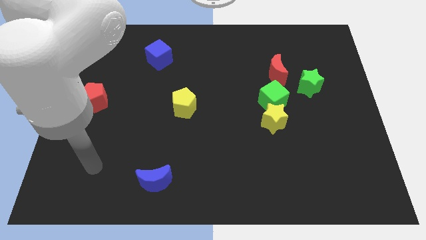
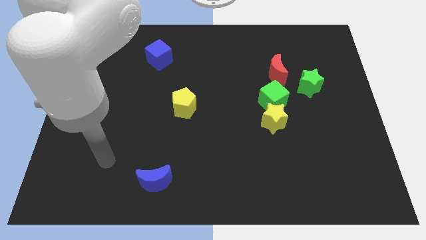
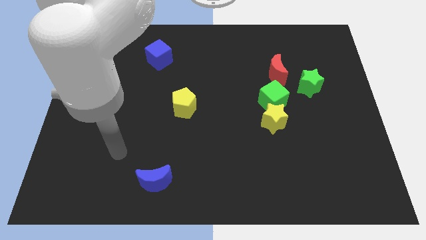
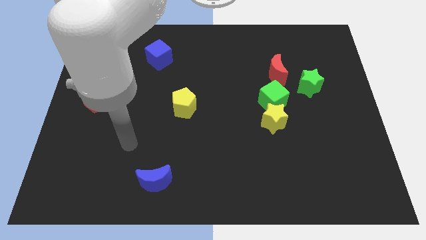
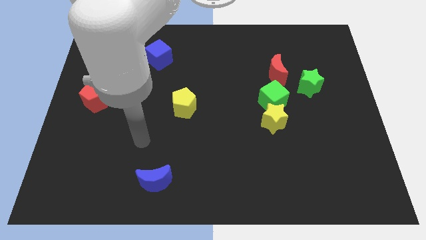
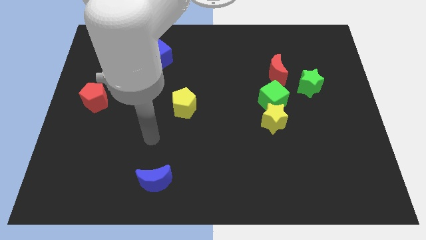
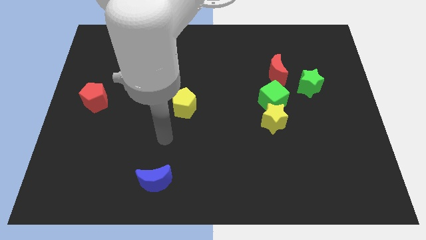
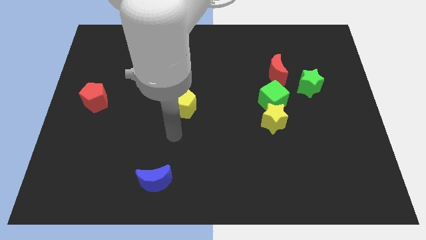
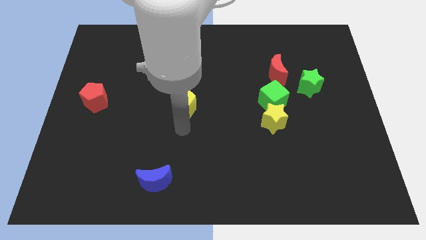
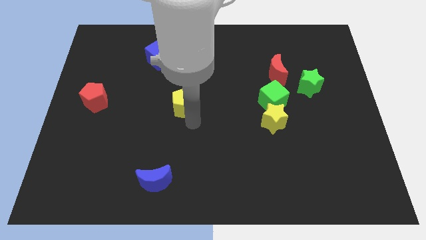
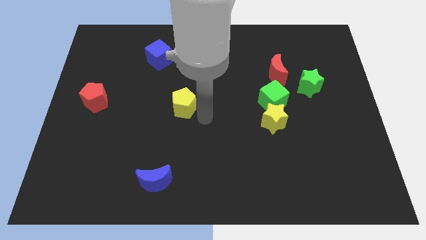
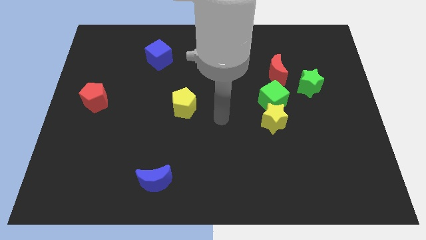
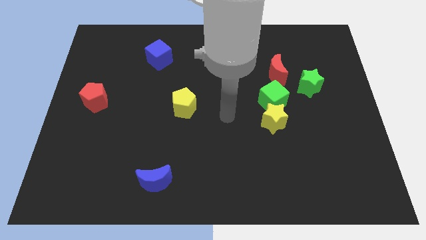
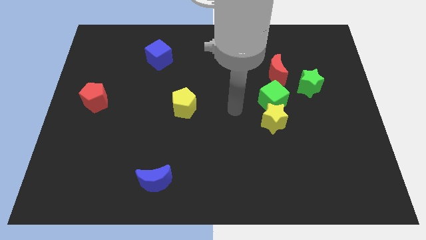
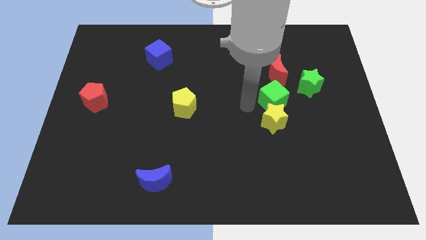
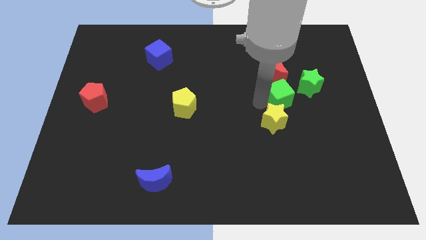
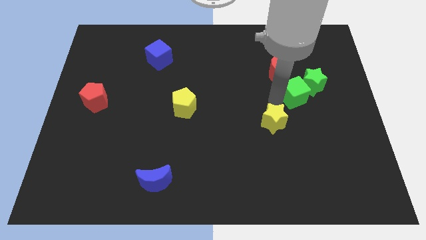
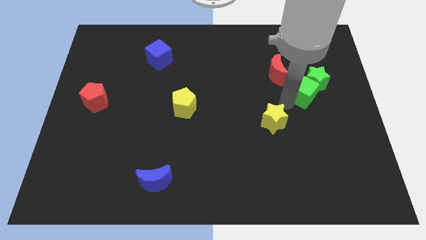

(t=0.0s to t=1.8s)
separate the yellow star from the green cube

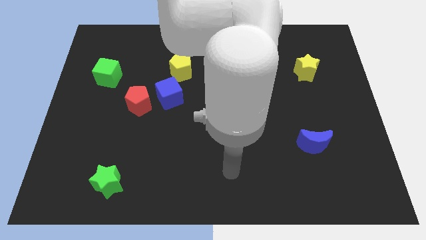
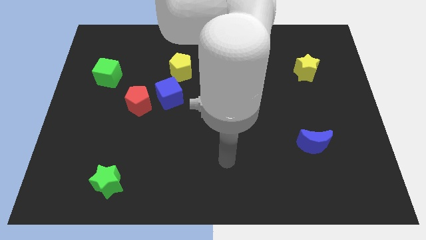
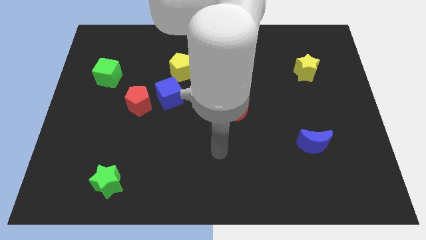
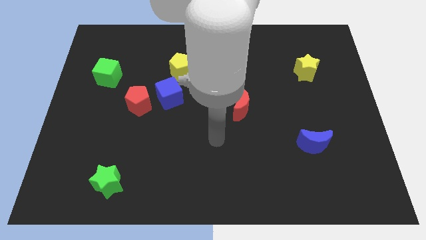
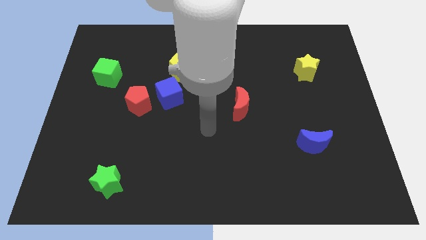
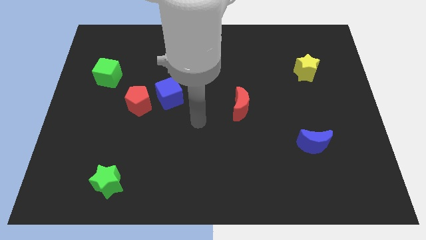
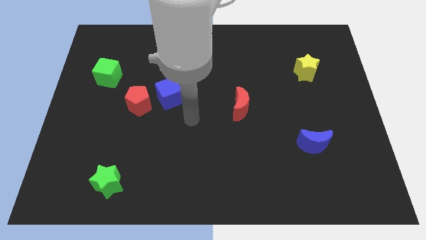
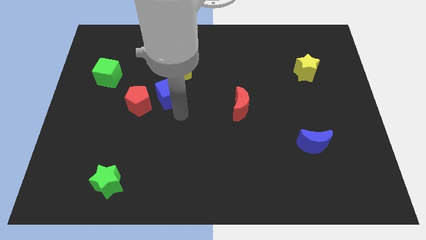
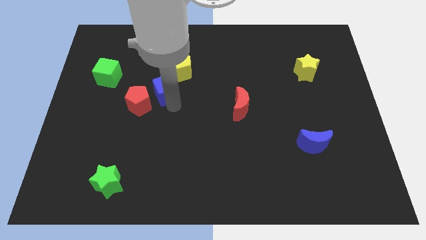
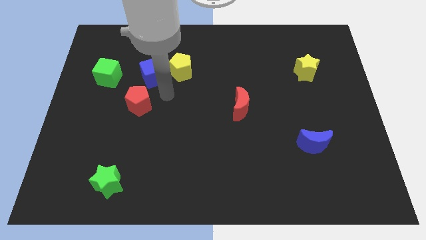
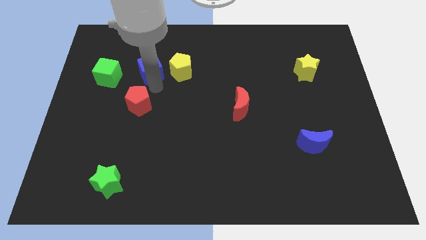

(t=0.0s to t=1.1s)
separate the red pentagon from the blue cube

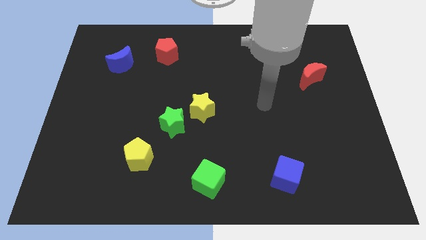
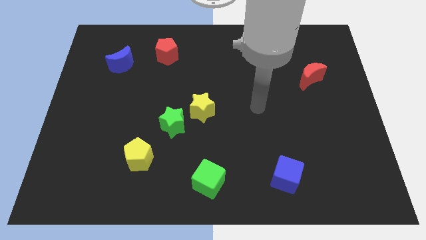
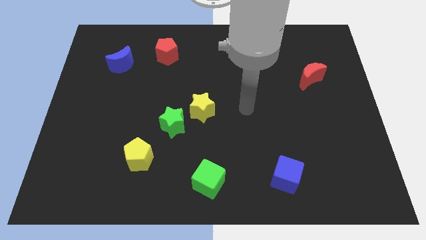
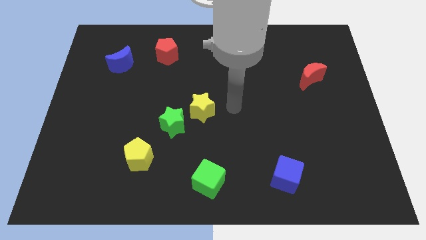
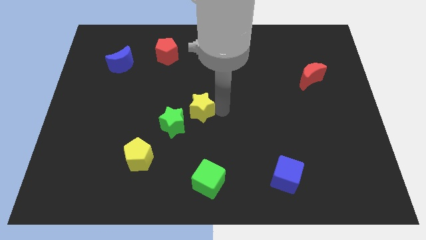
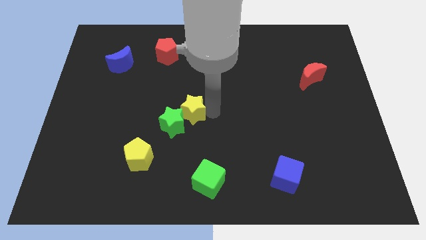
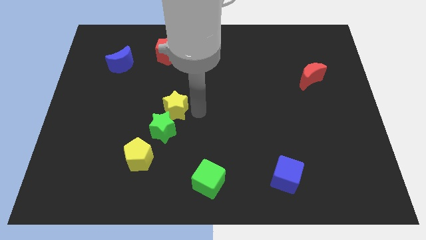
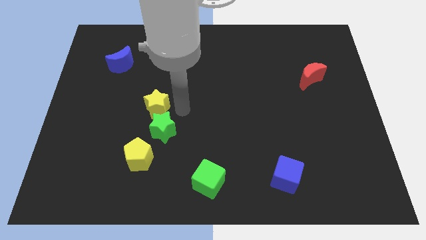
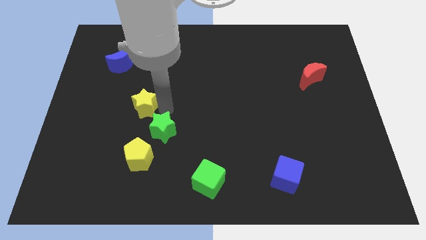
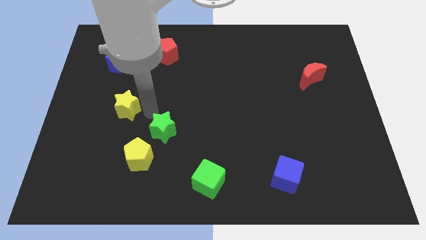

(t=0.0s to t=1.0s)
pull the green star apart from the yellow star

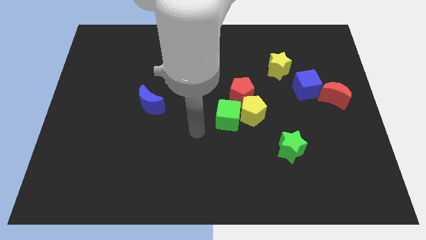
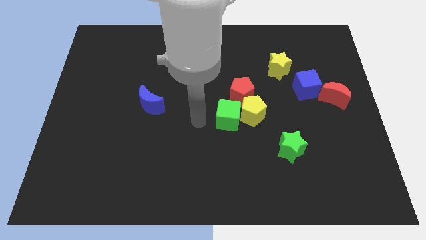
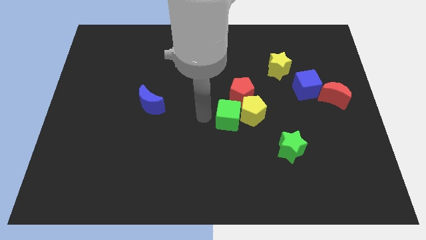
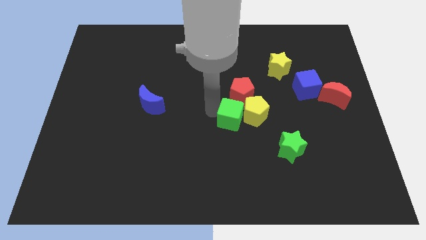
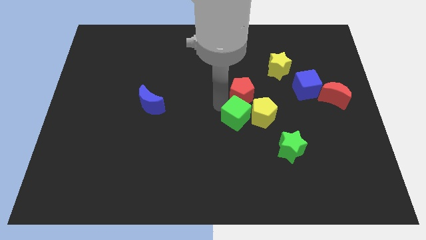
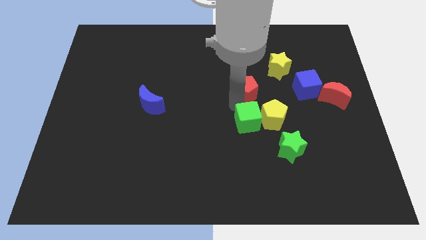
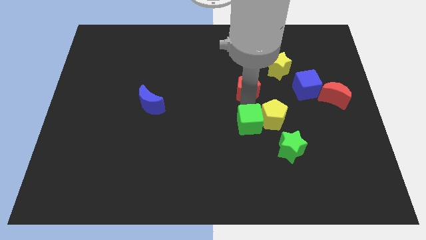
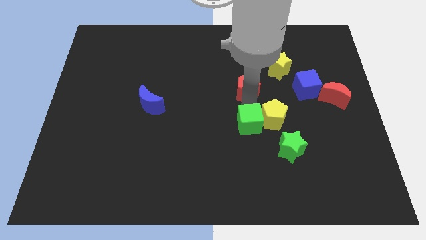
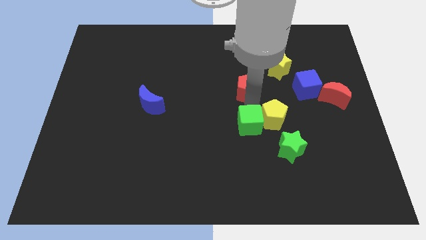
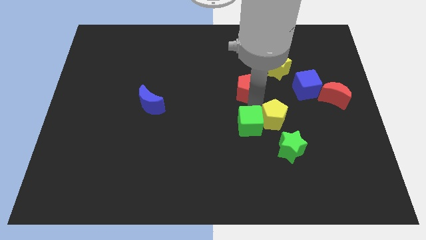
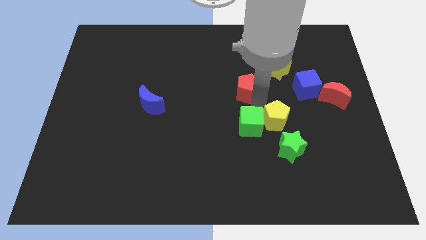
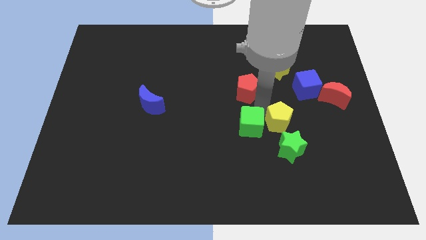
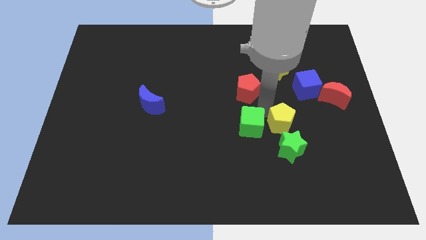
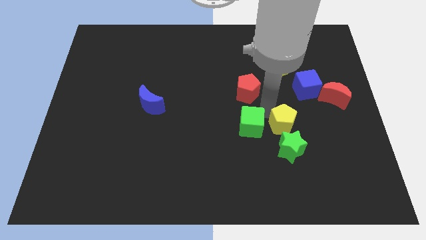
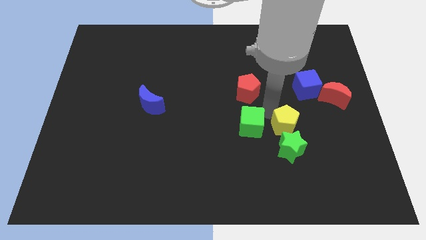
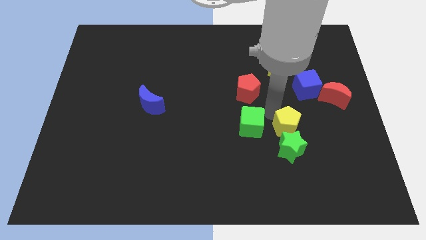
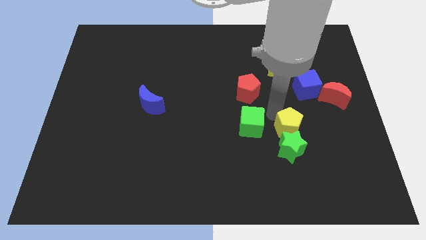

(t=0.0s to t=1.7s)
move the yellow pentagon away from the green cube and red pentagon

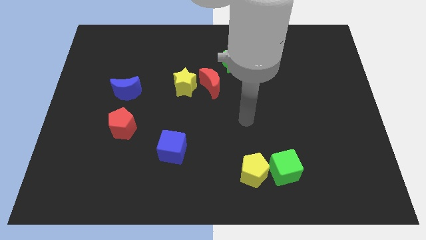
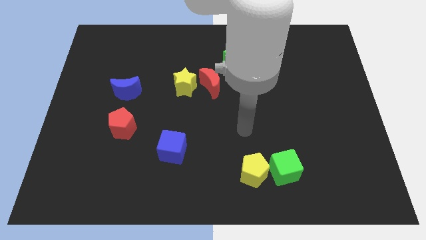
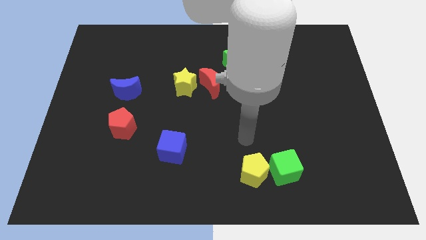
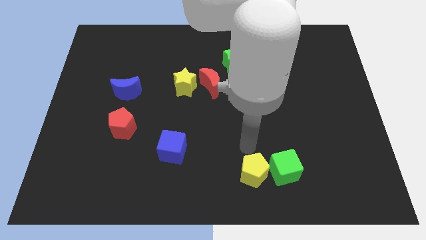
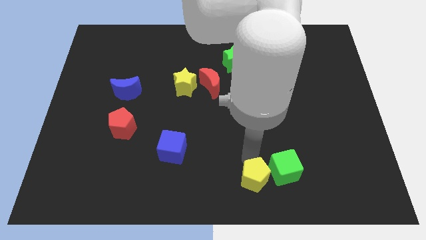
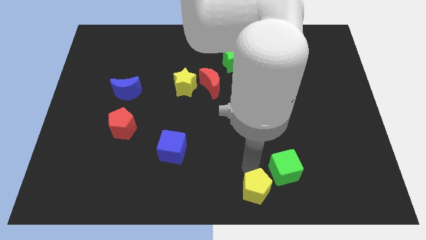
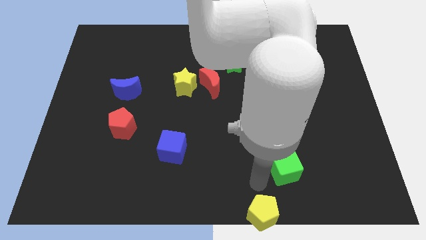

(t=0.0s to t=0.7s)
move the green cube away from the yellow pentagon

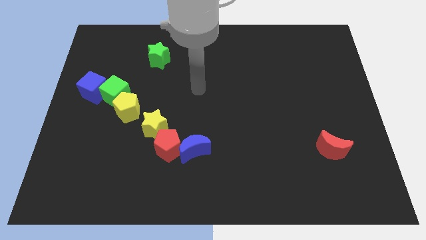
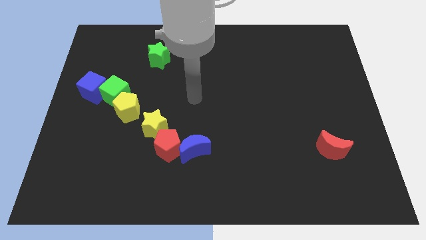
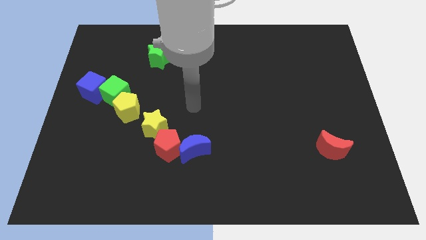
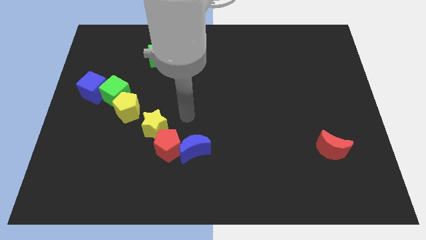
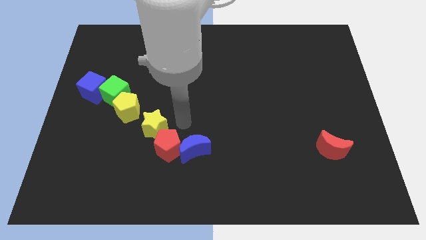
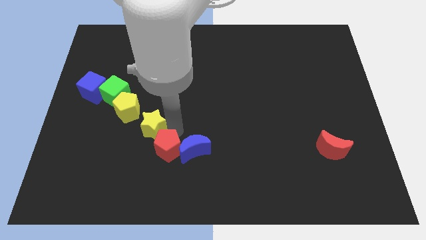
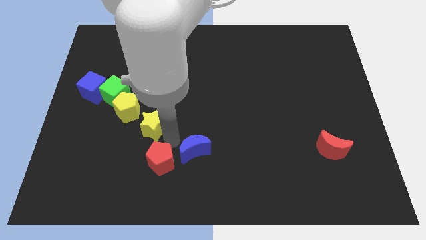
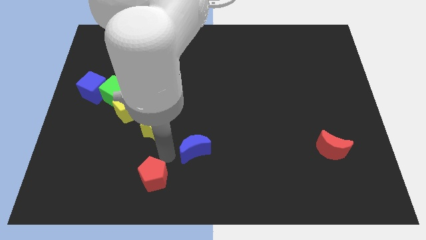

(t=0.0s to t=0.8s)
move the blue moon away from the red pentagon

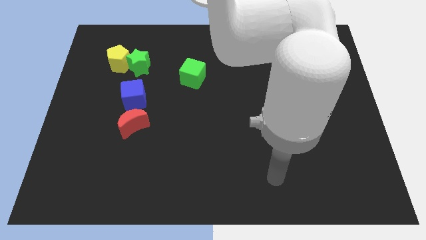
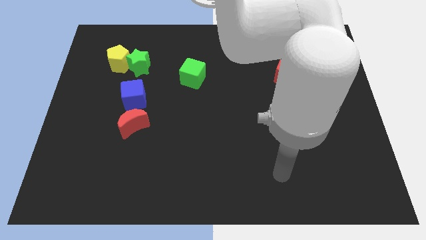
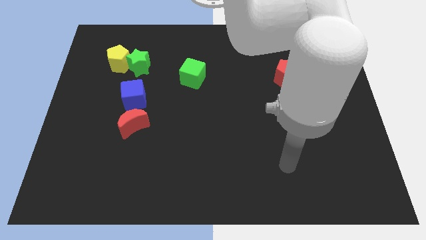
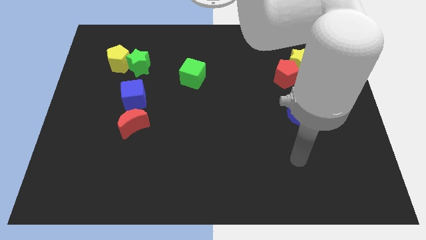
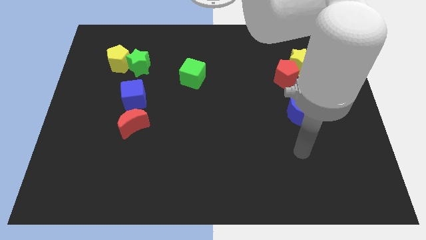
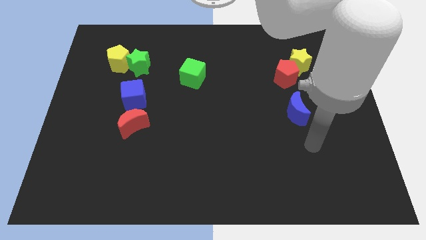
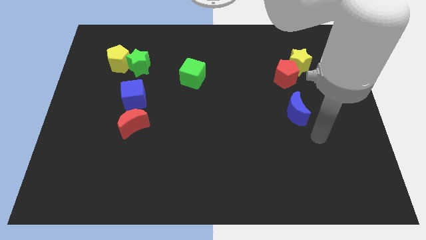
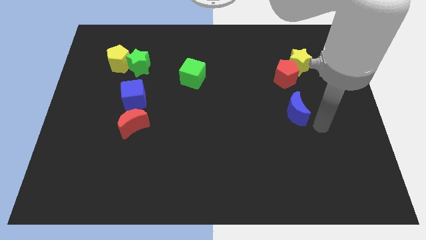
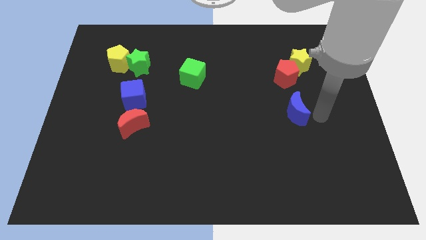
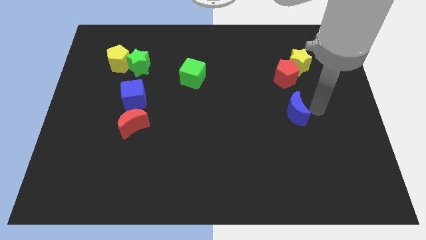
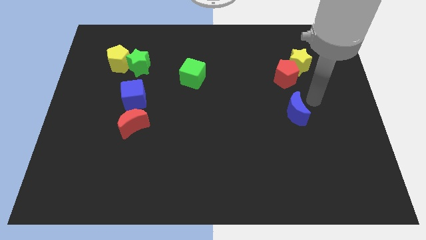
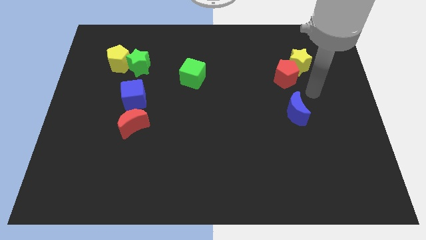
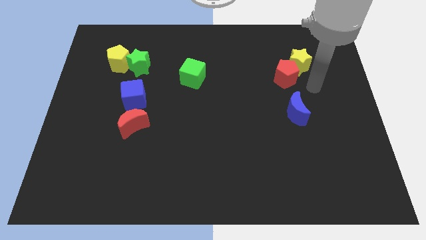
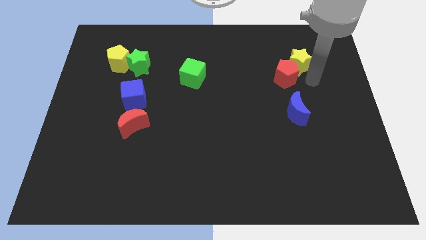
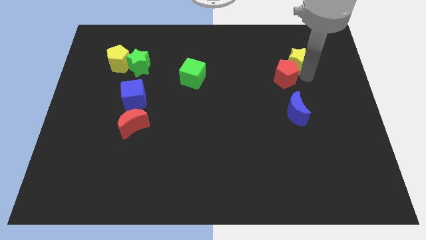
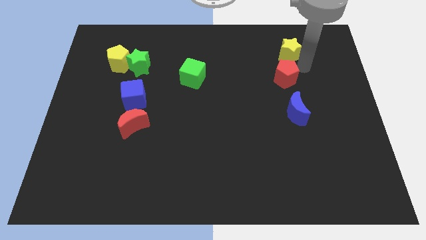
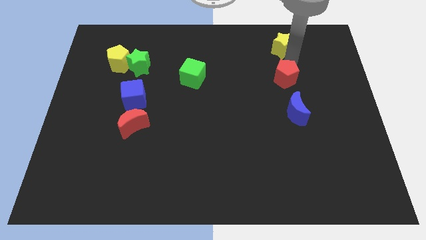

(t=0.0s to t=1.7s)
pull the red pentagon apart from the yellow star

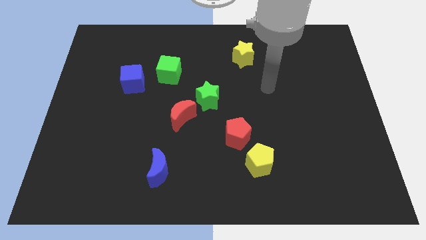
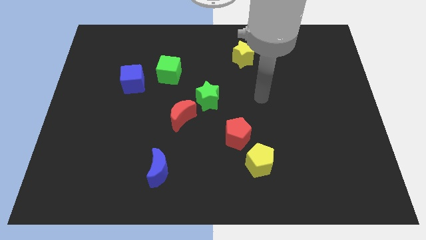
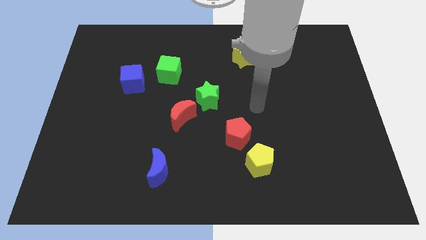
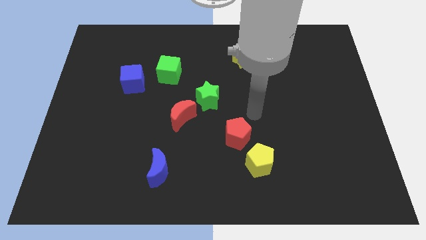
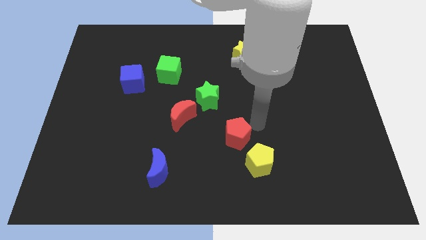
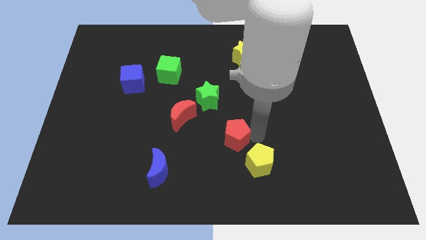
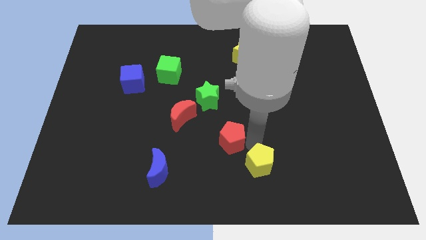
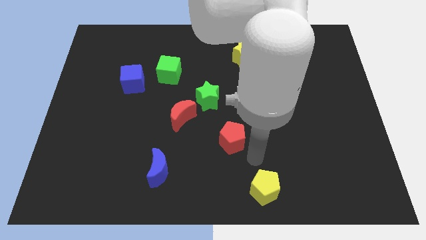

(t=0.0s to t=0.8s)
separate the red pentagon from the yellow pentagon
